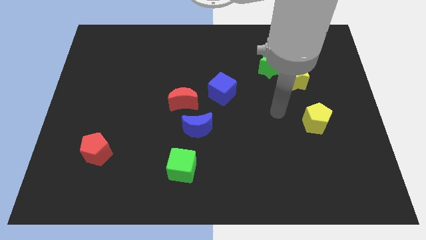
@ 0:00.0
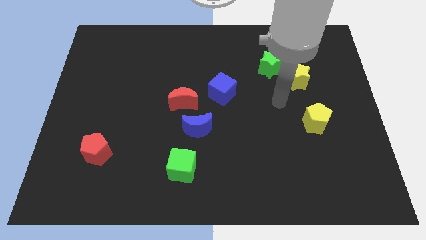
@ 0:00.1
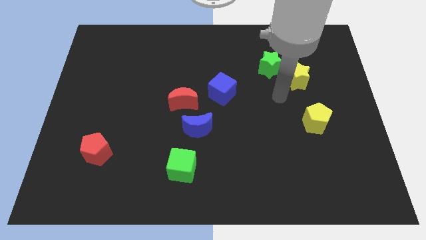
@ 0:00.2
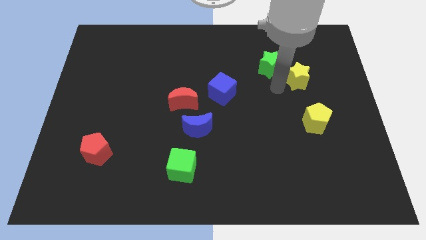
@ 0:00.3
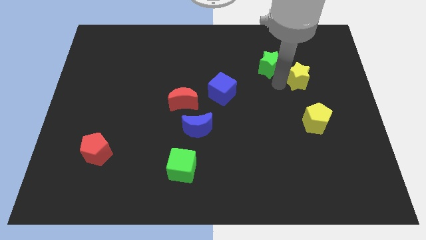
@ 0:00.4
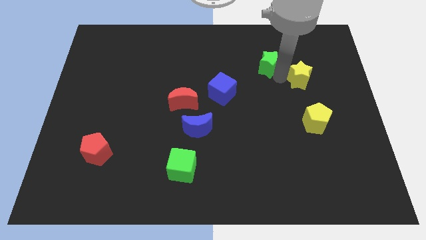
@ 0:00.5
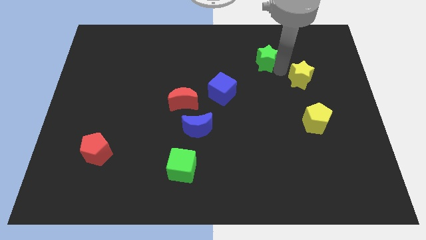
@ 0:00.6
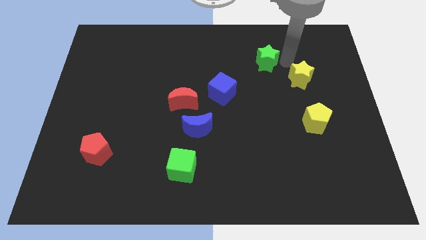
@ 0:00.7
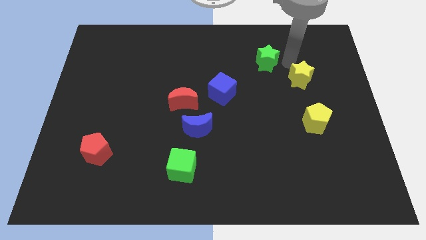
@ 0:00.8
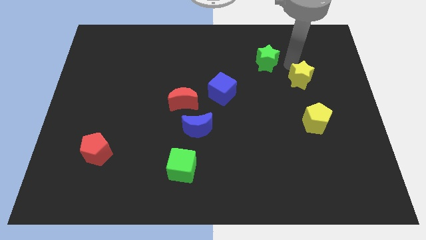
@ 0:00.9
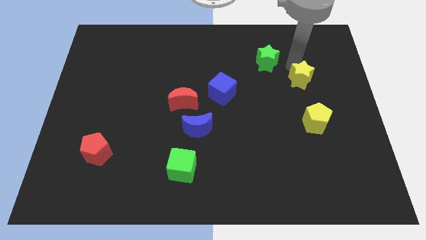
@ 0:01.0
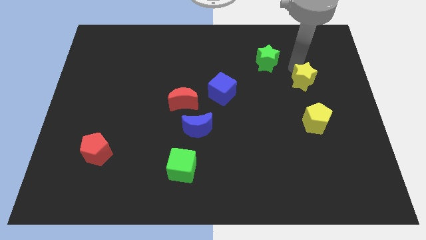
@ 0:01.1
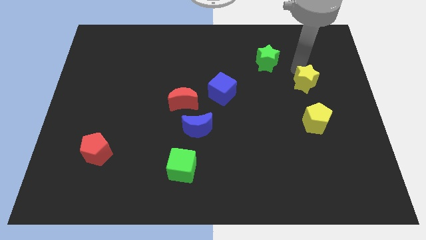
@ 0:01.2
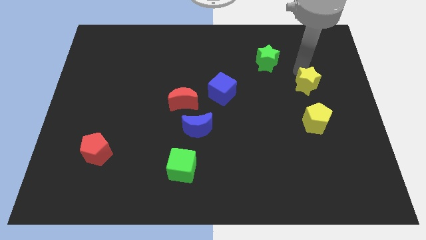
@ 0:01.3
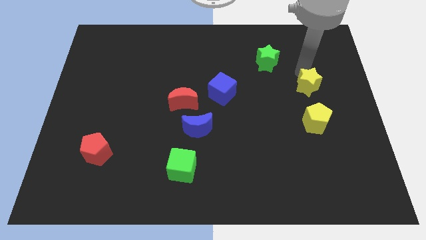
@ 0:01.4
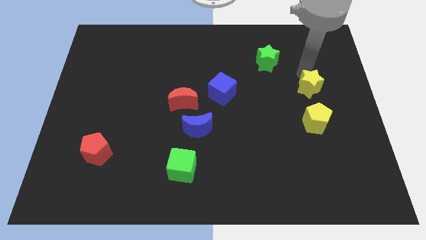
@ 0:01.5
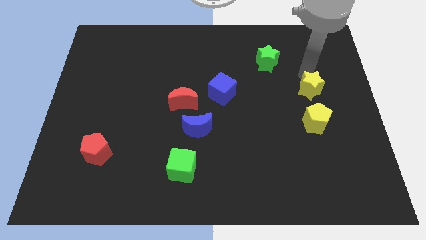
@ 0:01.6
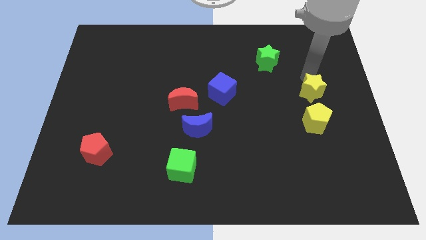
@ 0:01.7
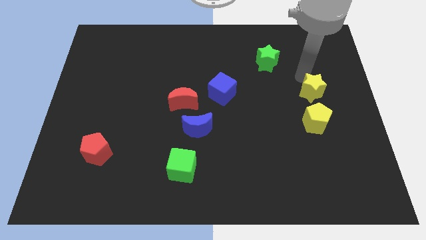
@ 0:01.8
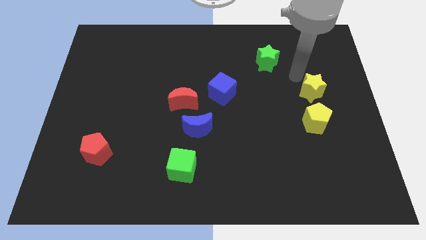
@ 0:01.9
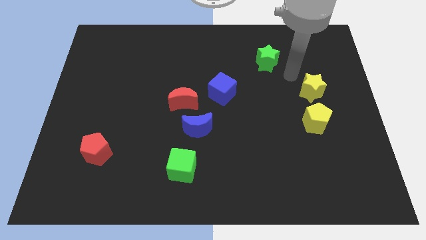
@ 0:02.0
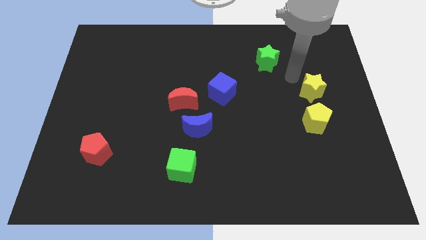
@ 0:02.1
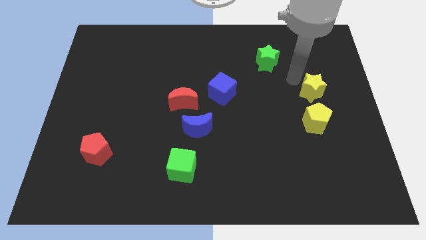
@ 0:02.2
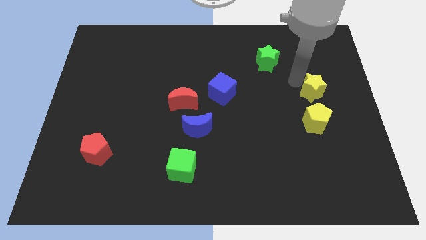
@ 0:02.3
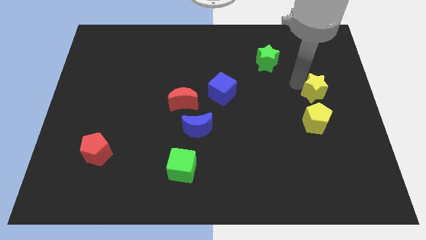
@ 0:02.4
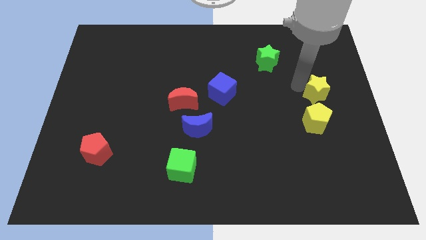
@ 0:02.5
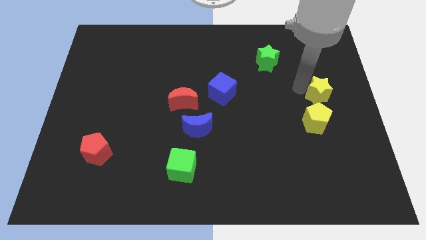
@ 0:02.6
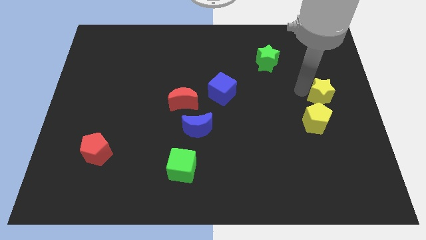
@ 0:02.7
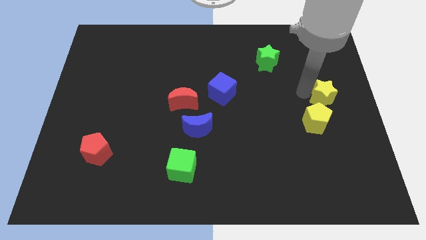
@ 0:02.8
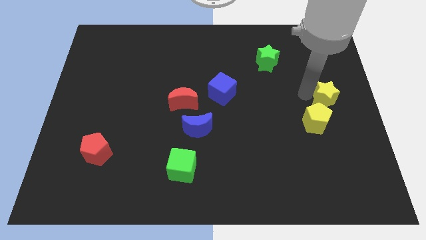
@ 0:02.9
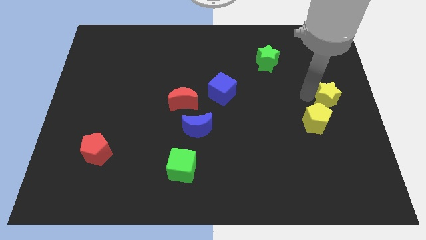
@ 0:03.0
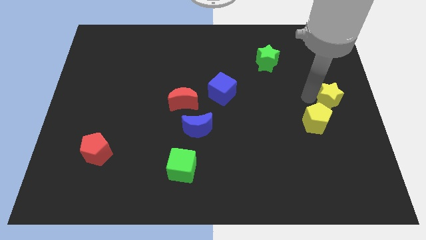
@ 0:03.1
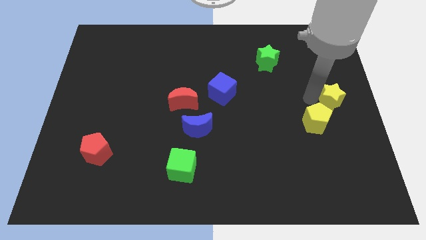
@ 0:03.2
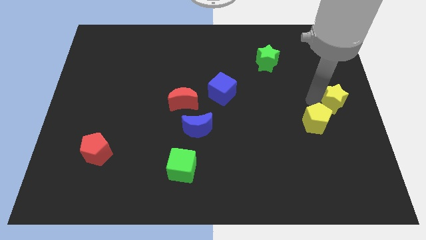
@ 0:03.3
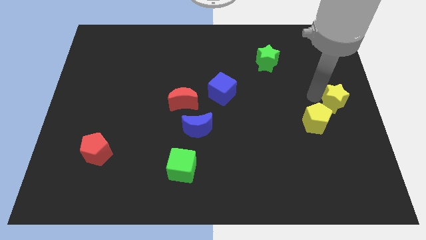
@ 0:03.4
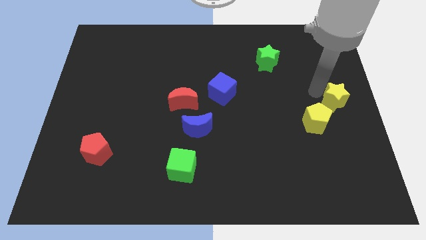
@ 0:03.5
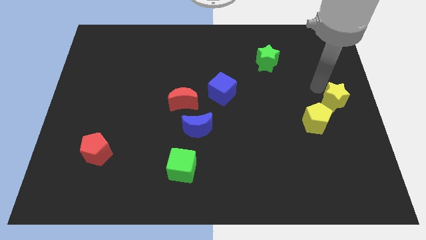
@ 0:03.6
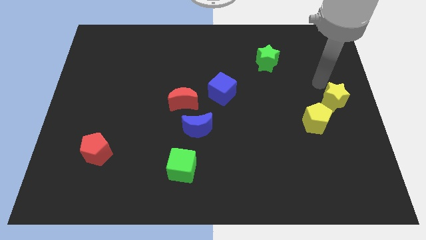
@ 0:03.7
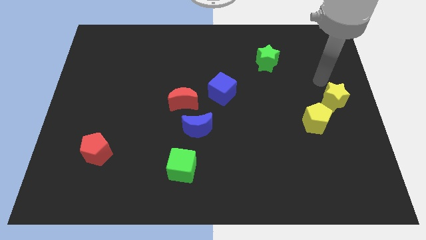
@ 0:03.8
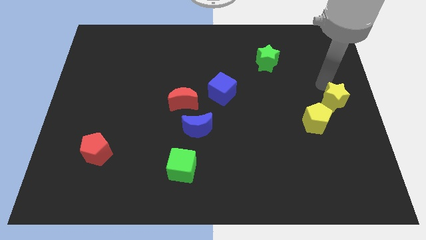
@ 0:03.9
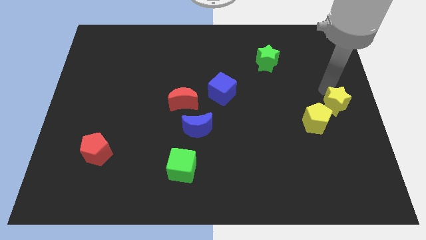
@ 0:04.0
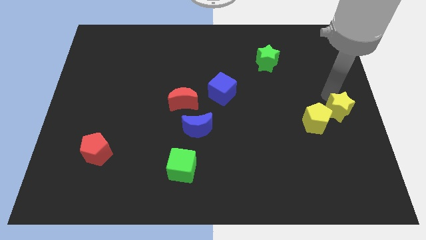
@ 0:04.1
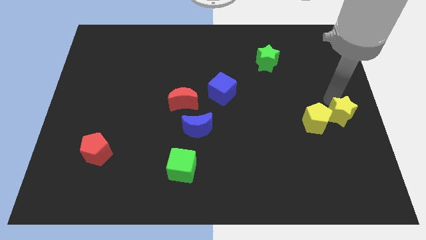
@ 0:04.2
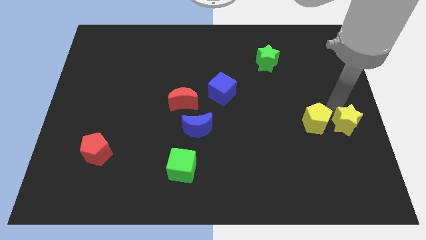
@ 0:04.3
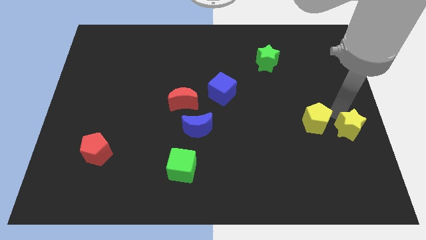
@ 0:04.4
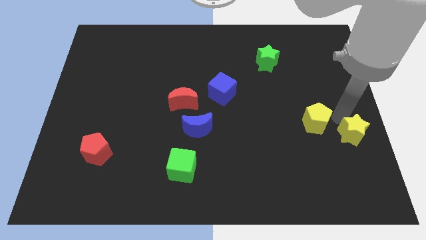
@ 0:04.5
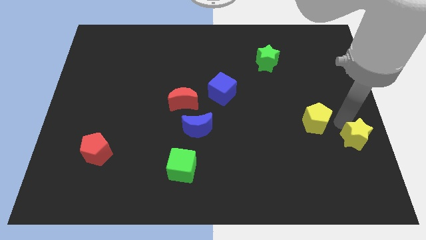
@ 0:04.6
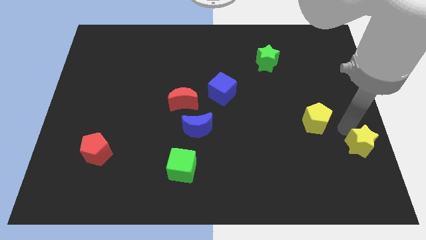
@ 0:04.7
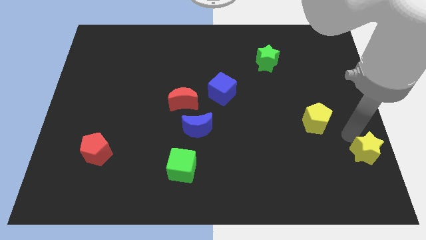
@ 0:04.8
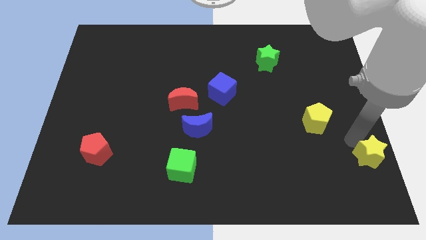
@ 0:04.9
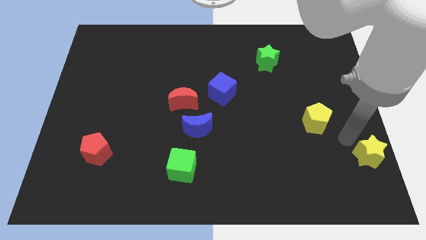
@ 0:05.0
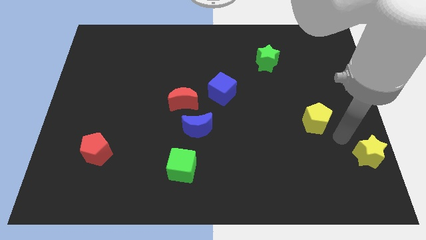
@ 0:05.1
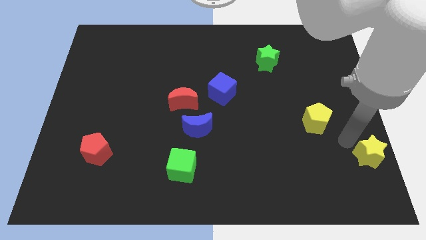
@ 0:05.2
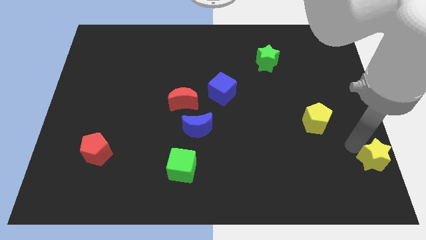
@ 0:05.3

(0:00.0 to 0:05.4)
move the yellow star to the bottom right

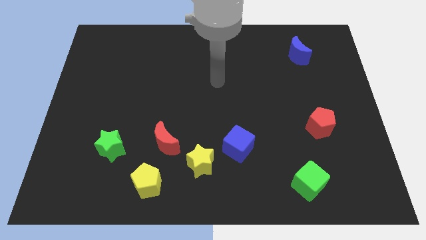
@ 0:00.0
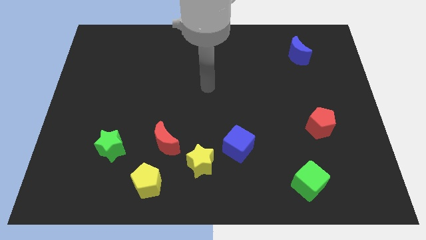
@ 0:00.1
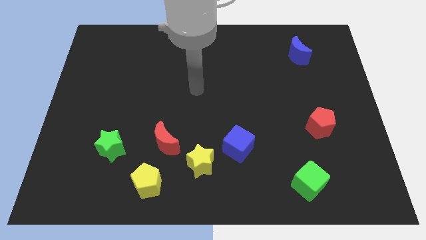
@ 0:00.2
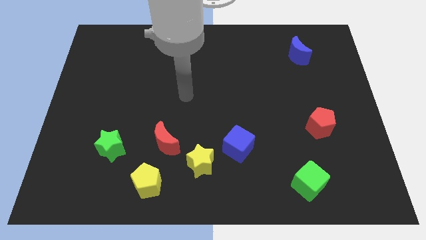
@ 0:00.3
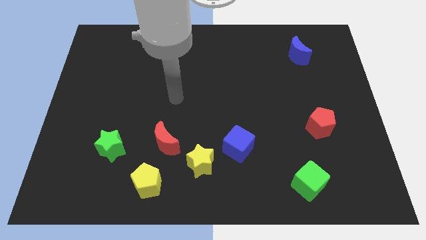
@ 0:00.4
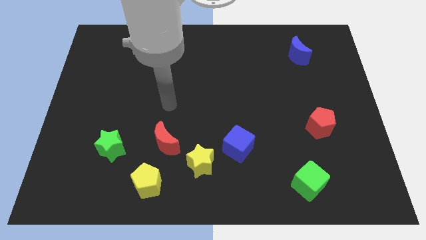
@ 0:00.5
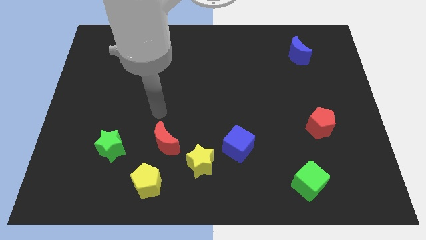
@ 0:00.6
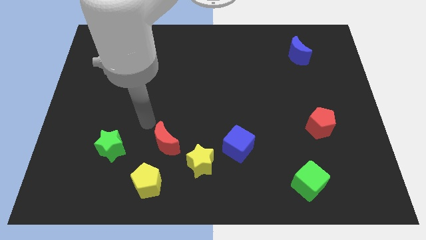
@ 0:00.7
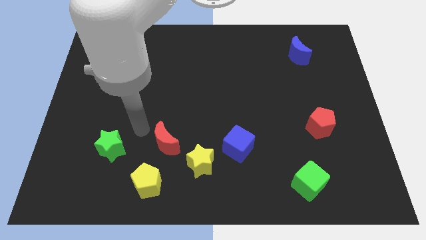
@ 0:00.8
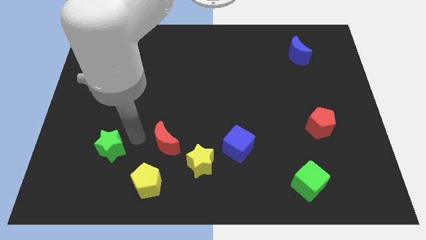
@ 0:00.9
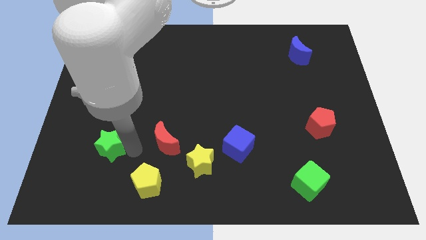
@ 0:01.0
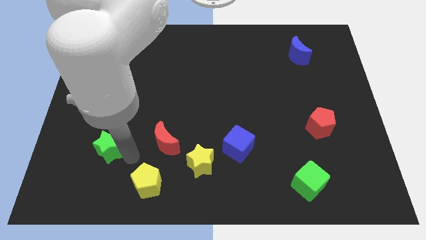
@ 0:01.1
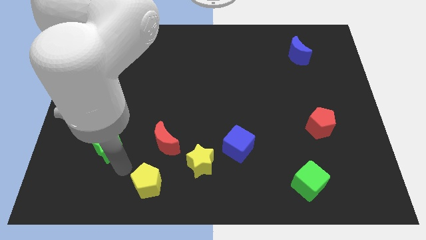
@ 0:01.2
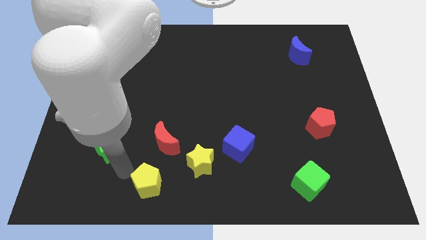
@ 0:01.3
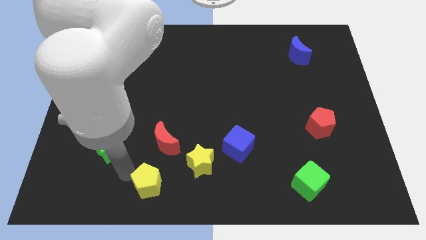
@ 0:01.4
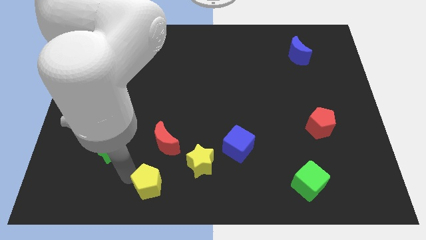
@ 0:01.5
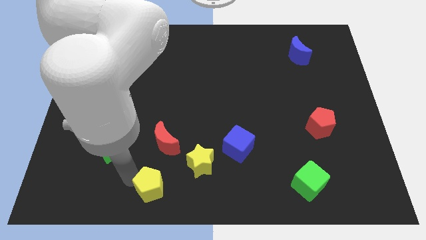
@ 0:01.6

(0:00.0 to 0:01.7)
put the yellow pentagon to the bottom
